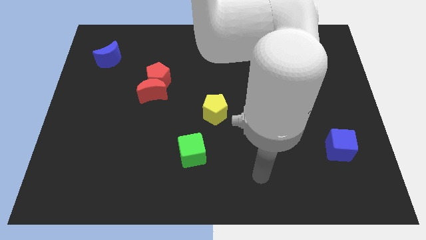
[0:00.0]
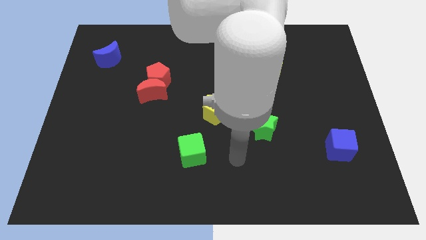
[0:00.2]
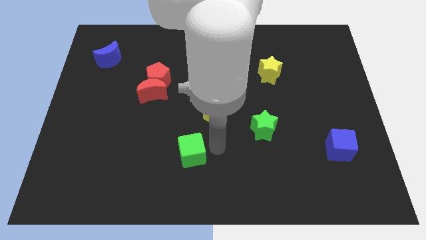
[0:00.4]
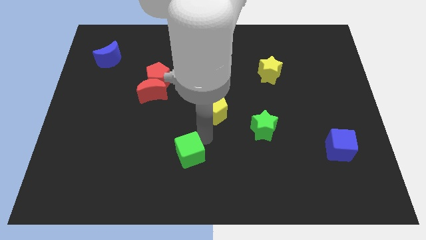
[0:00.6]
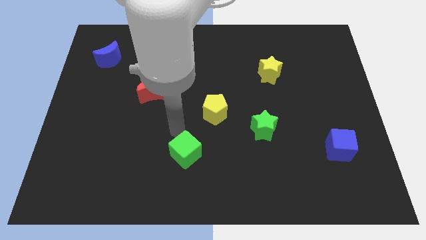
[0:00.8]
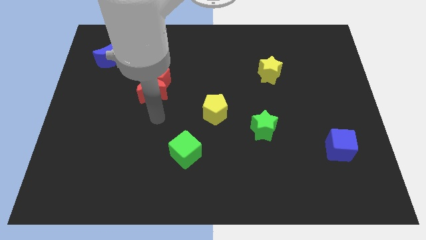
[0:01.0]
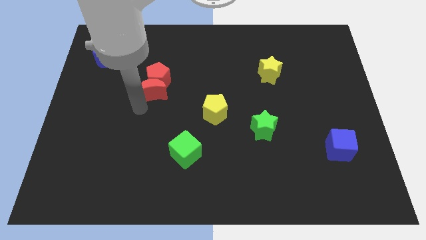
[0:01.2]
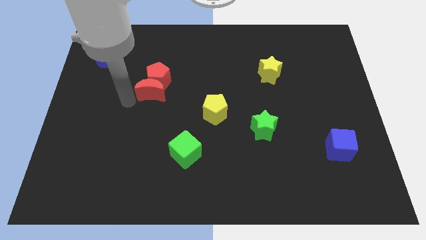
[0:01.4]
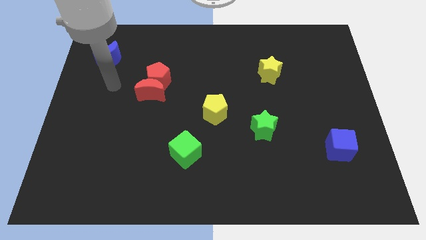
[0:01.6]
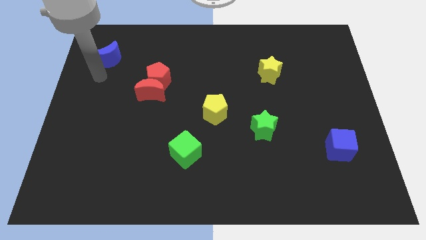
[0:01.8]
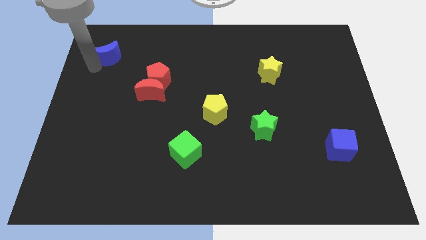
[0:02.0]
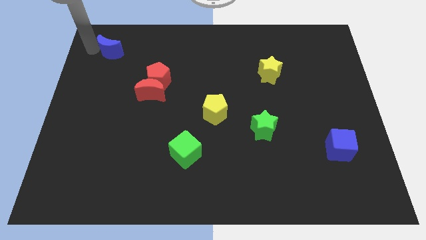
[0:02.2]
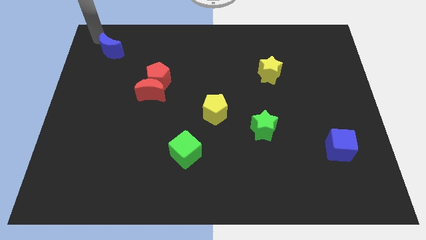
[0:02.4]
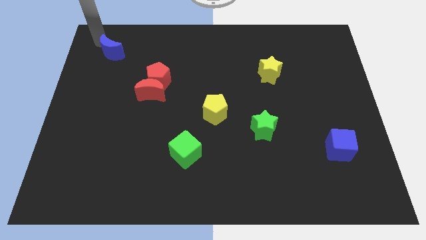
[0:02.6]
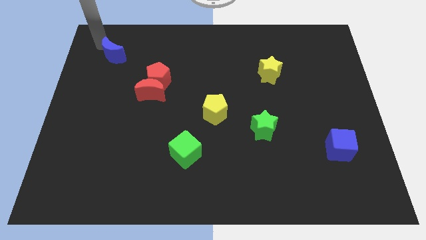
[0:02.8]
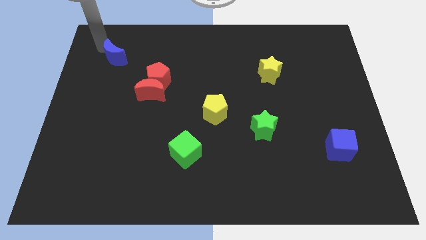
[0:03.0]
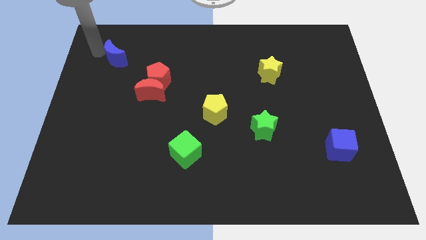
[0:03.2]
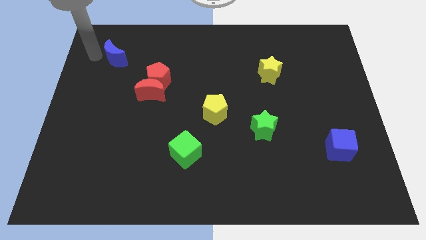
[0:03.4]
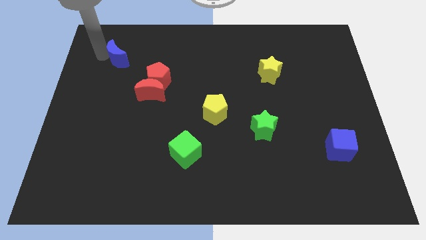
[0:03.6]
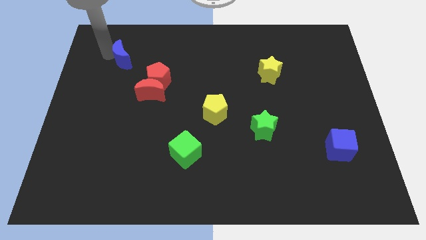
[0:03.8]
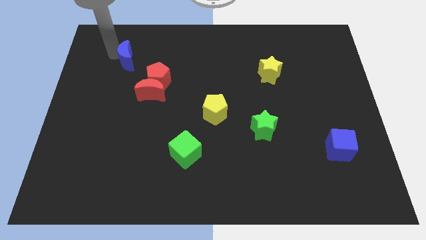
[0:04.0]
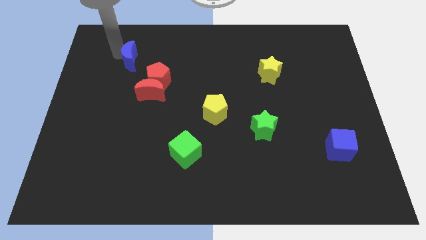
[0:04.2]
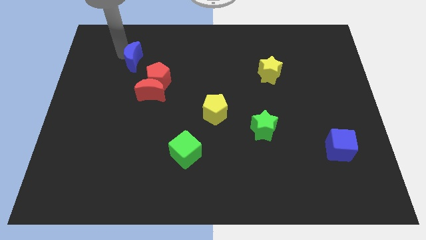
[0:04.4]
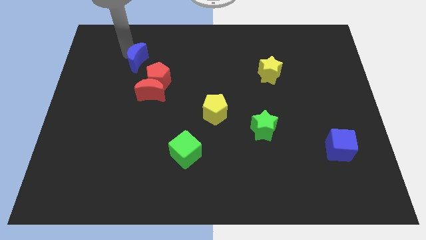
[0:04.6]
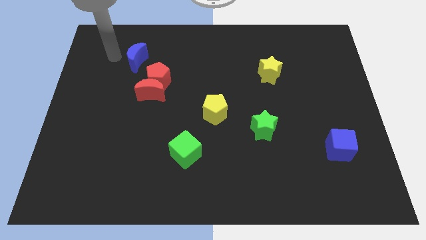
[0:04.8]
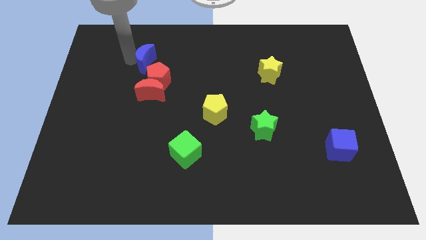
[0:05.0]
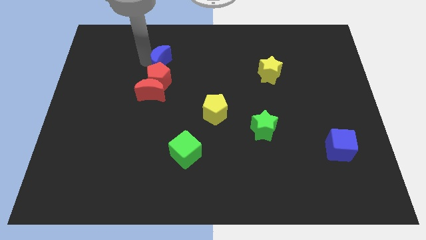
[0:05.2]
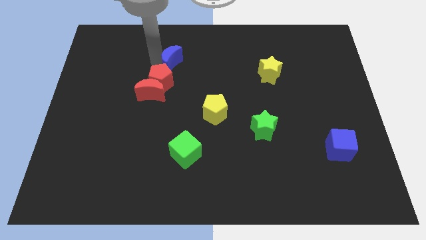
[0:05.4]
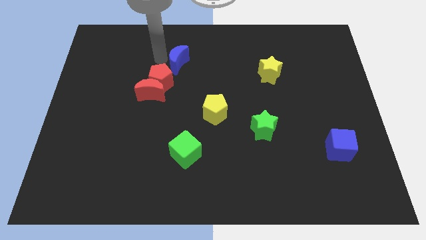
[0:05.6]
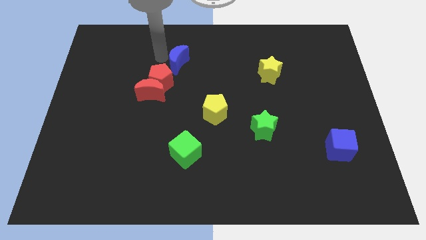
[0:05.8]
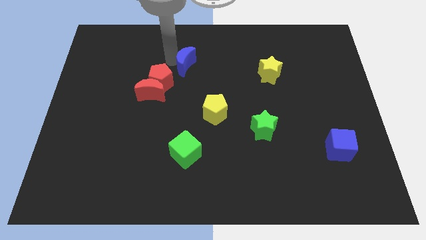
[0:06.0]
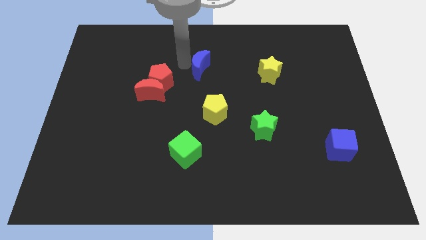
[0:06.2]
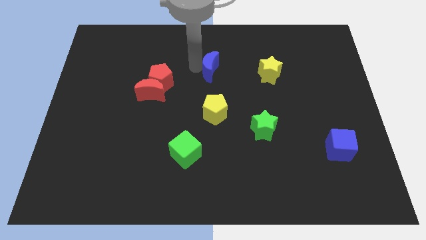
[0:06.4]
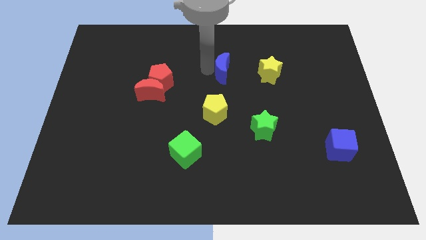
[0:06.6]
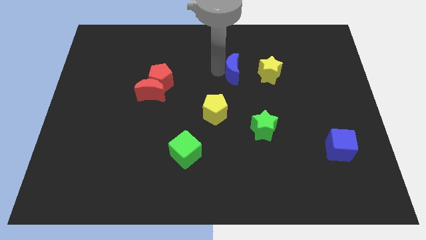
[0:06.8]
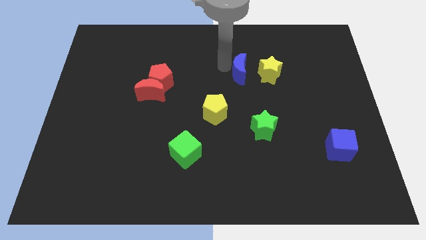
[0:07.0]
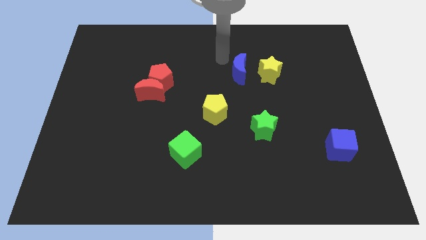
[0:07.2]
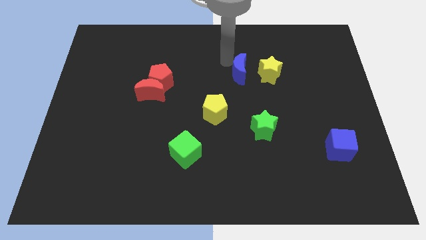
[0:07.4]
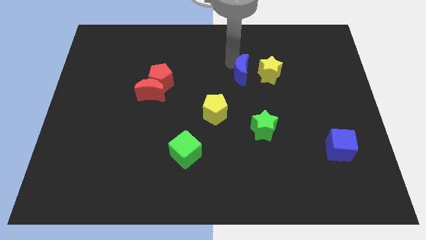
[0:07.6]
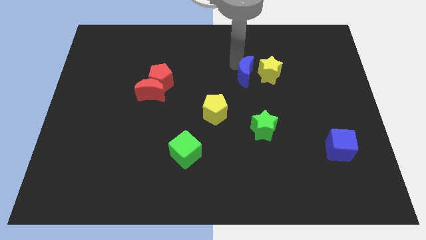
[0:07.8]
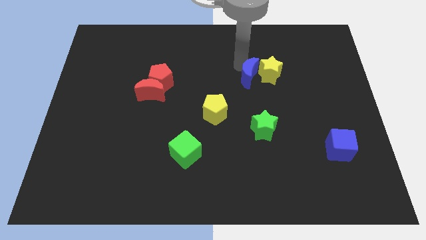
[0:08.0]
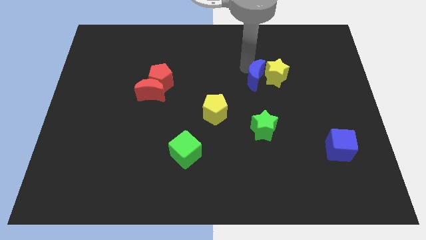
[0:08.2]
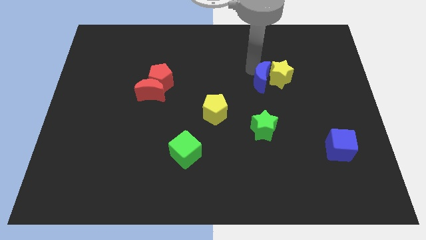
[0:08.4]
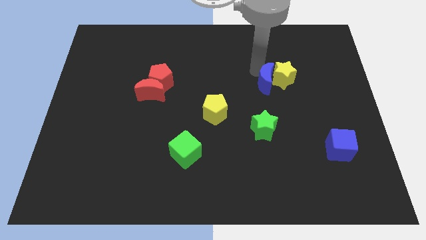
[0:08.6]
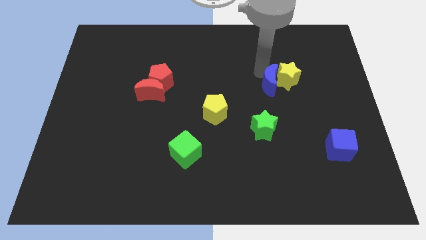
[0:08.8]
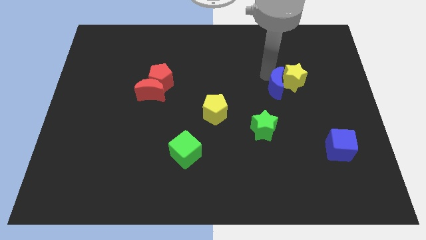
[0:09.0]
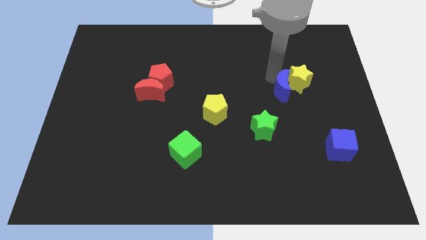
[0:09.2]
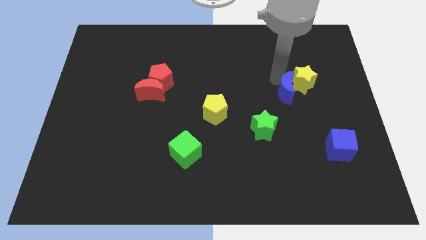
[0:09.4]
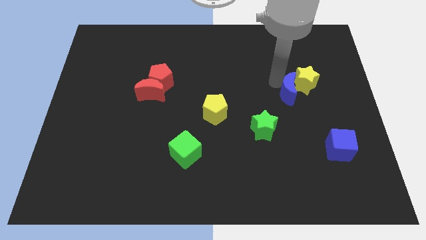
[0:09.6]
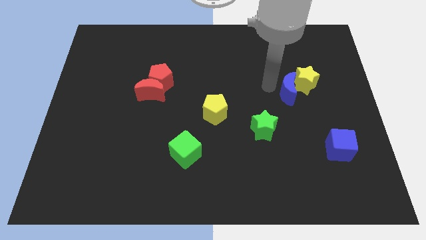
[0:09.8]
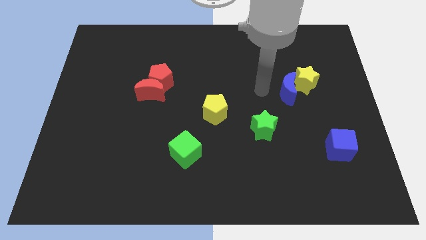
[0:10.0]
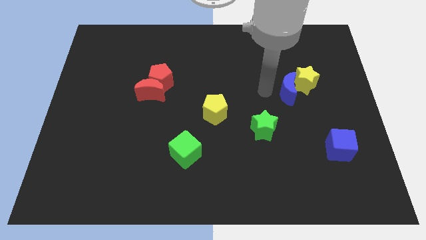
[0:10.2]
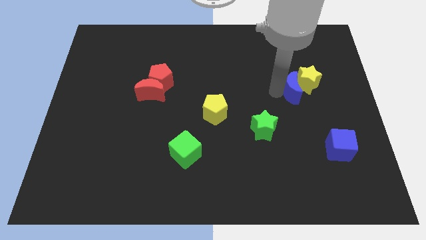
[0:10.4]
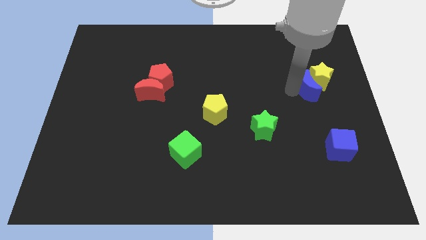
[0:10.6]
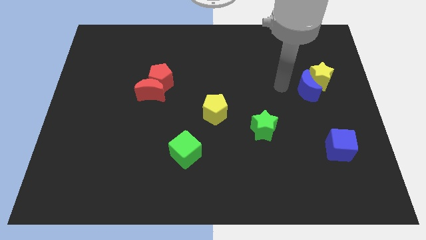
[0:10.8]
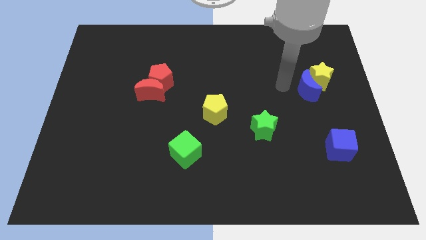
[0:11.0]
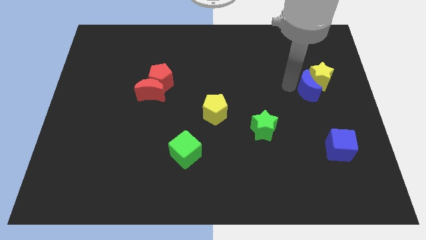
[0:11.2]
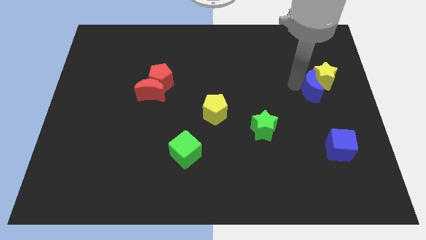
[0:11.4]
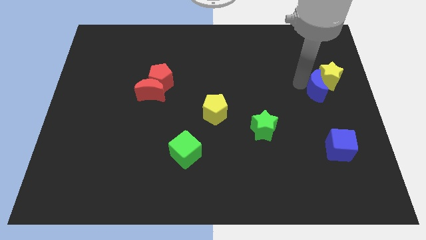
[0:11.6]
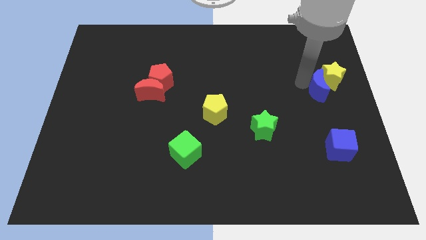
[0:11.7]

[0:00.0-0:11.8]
put the blue moon to the right side of the board
